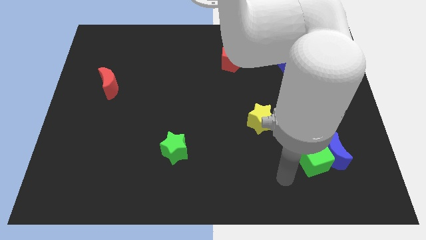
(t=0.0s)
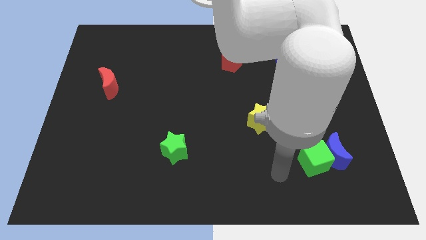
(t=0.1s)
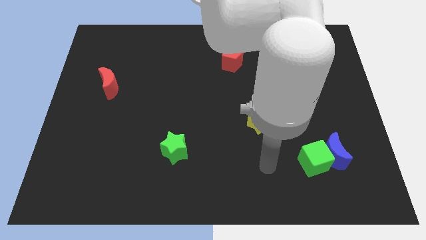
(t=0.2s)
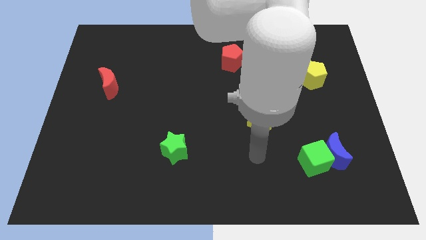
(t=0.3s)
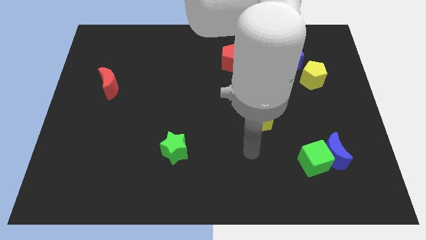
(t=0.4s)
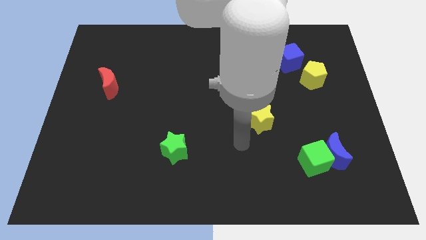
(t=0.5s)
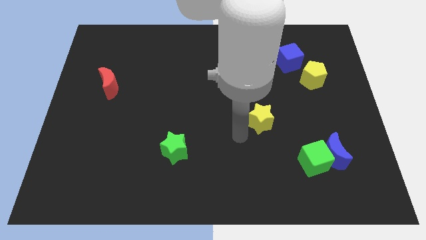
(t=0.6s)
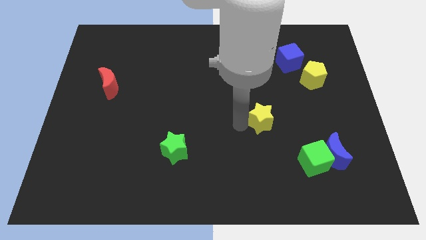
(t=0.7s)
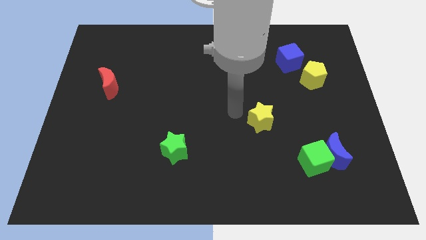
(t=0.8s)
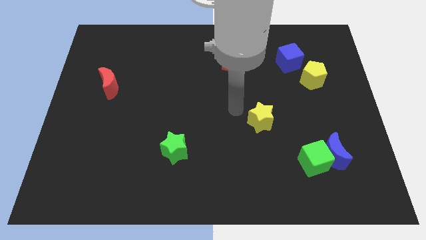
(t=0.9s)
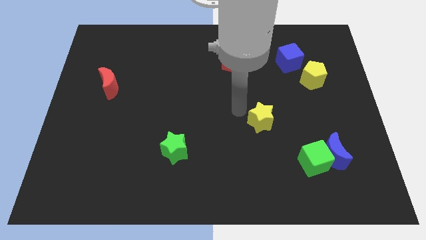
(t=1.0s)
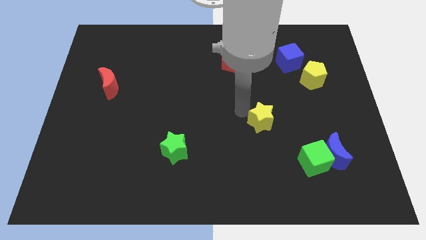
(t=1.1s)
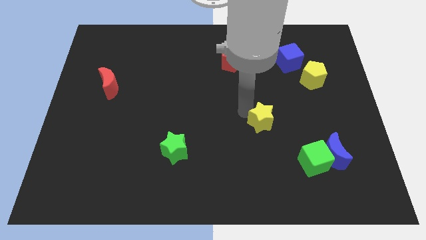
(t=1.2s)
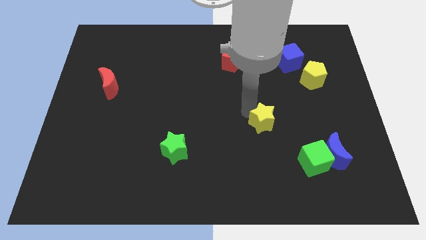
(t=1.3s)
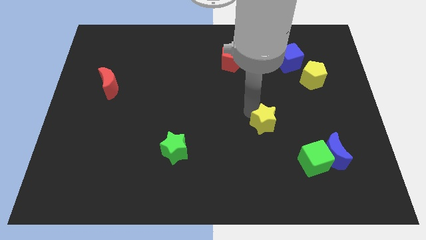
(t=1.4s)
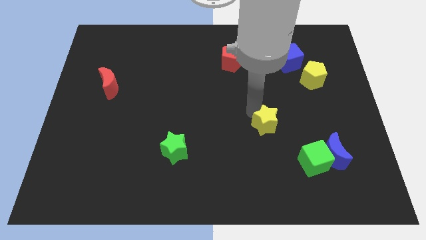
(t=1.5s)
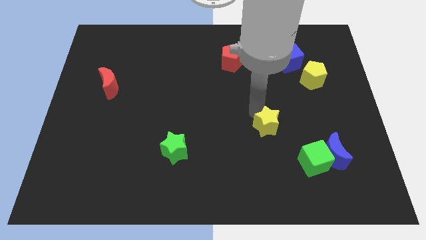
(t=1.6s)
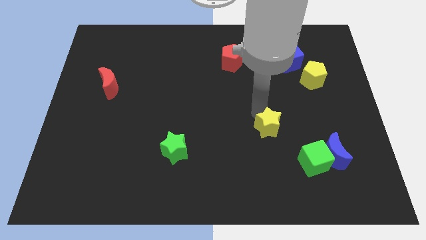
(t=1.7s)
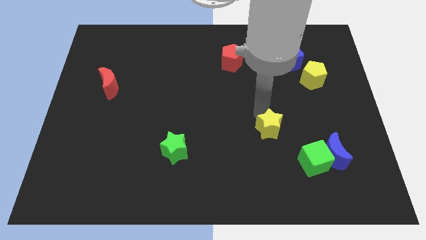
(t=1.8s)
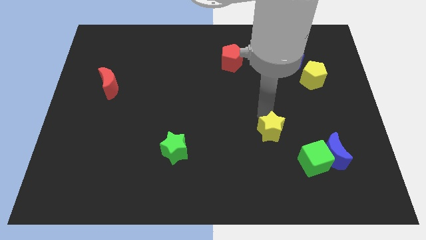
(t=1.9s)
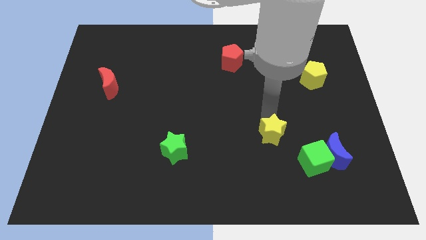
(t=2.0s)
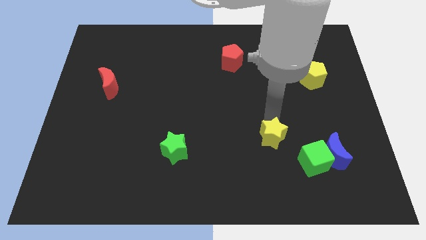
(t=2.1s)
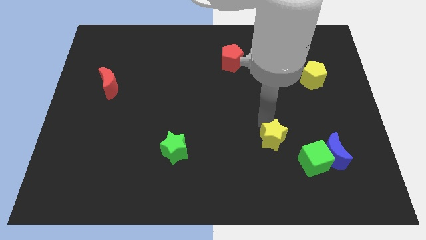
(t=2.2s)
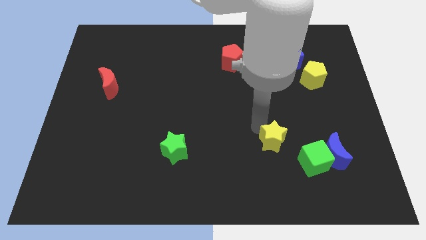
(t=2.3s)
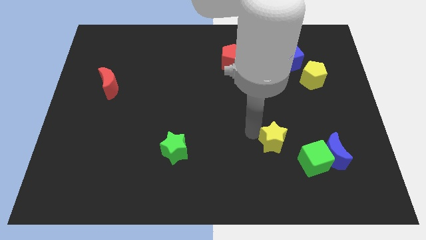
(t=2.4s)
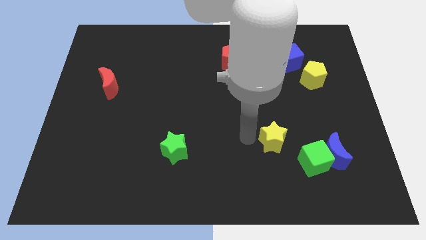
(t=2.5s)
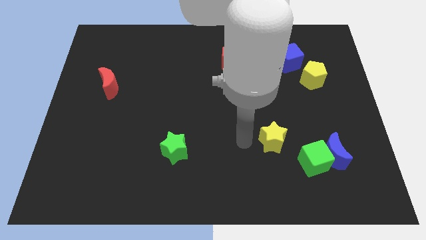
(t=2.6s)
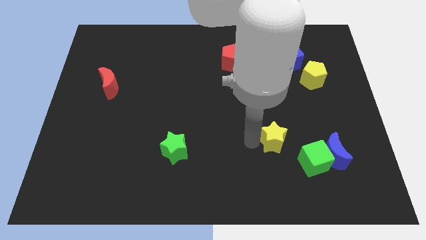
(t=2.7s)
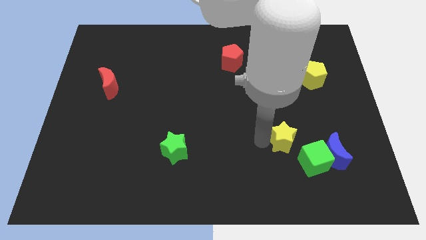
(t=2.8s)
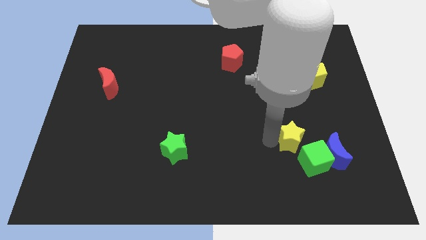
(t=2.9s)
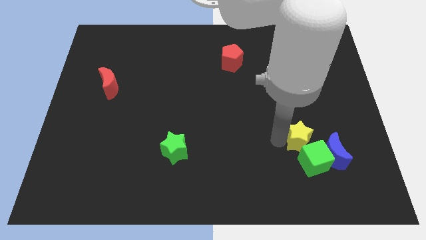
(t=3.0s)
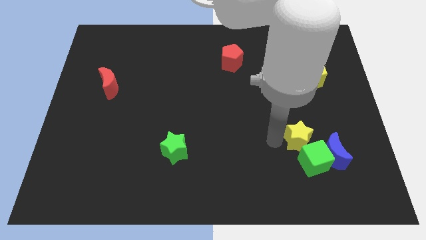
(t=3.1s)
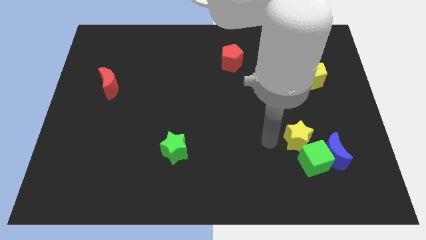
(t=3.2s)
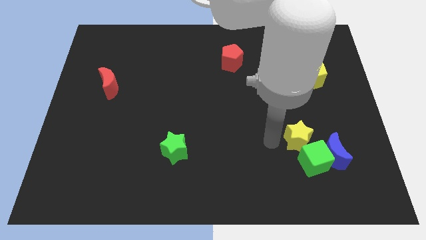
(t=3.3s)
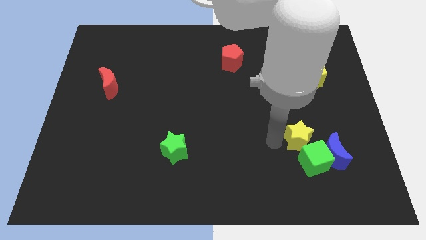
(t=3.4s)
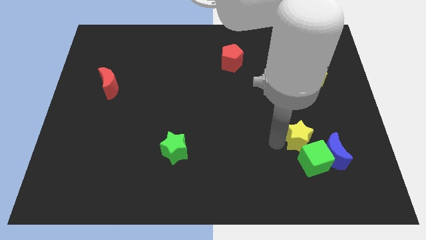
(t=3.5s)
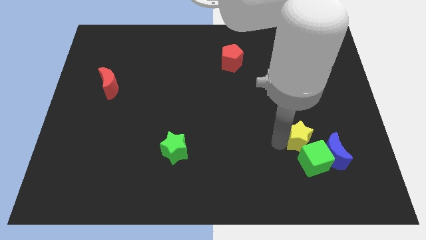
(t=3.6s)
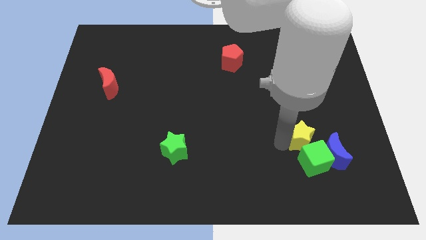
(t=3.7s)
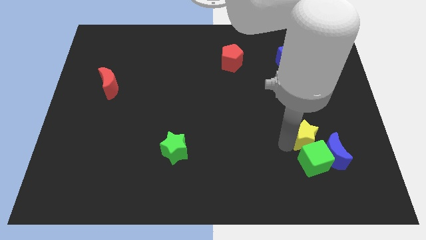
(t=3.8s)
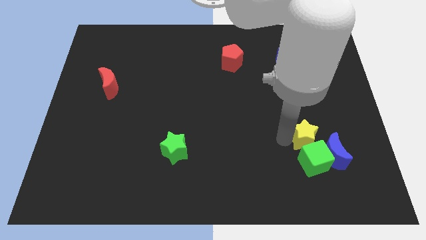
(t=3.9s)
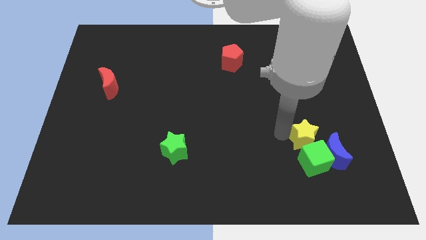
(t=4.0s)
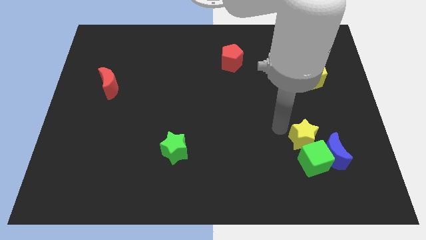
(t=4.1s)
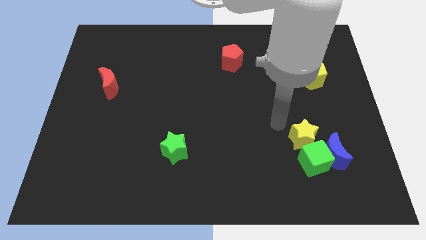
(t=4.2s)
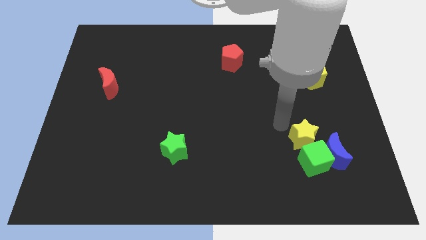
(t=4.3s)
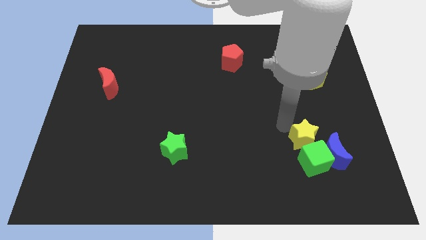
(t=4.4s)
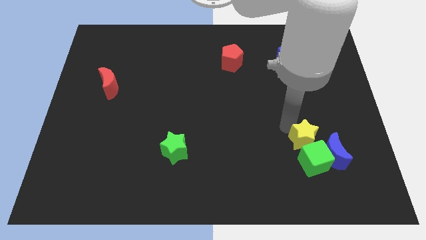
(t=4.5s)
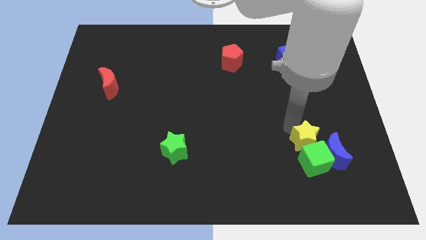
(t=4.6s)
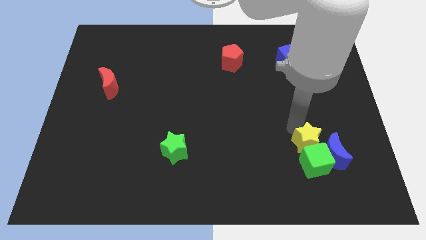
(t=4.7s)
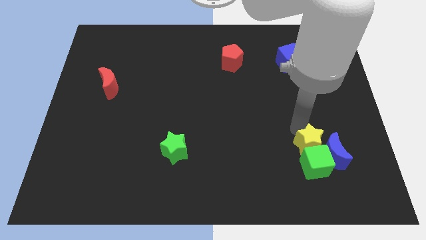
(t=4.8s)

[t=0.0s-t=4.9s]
put the yellow star towards the blue moon

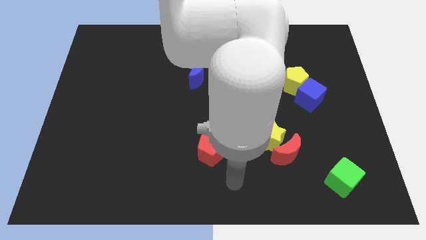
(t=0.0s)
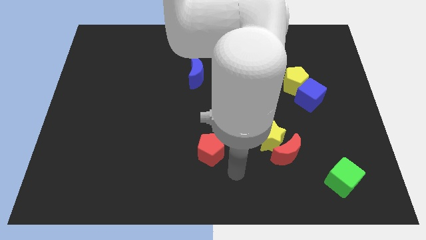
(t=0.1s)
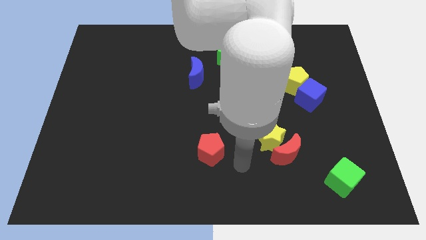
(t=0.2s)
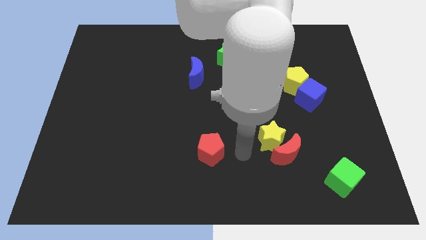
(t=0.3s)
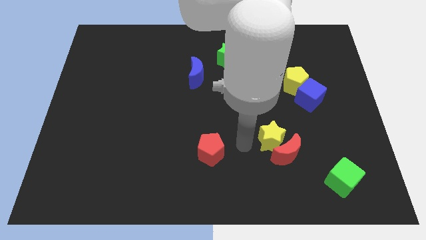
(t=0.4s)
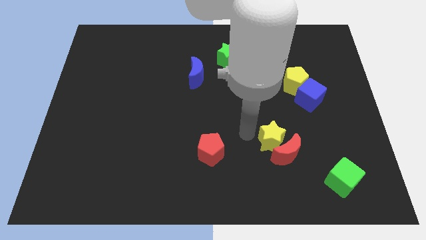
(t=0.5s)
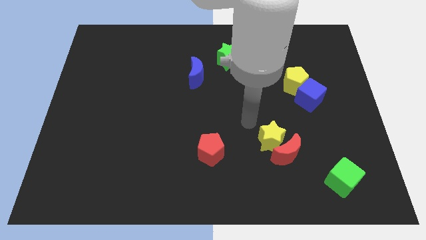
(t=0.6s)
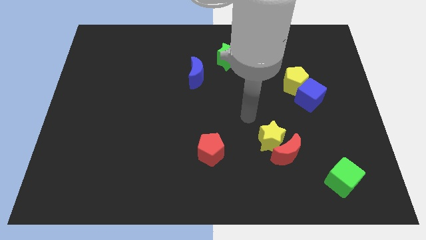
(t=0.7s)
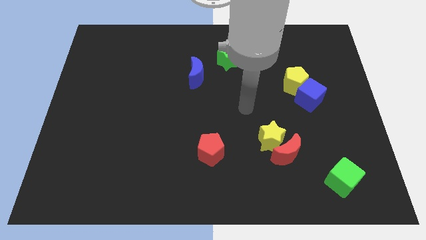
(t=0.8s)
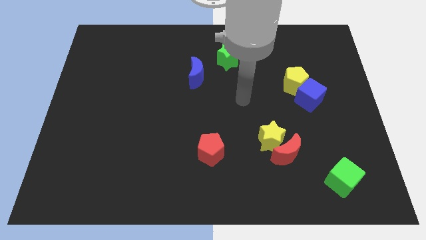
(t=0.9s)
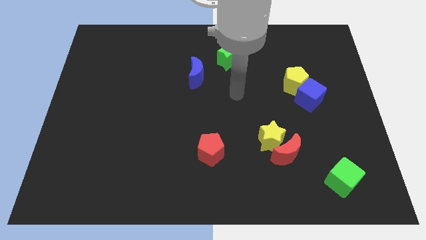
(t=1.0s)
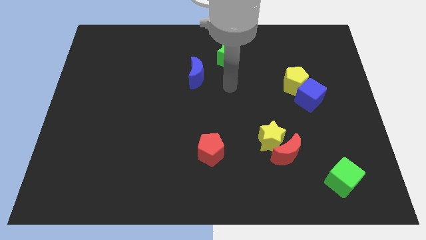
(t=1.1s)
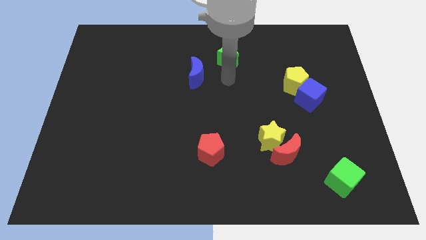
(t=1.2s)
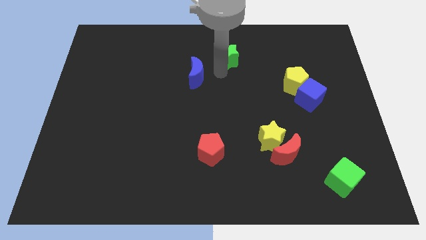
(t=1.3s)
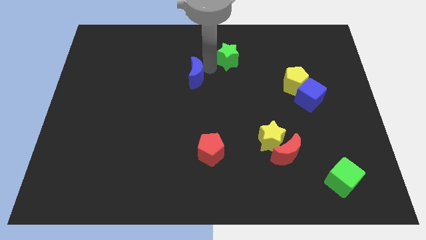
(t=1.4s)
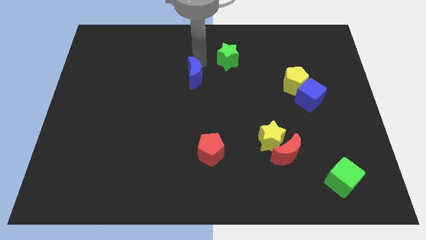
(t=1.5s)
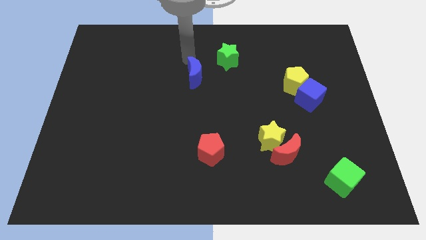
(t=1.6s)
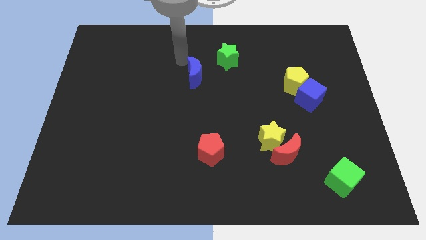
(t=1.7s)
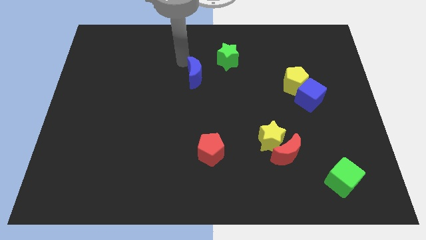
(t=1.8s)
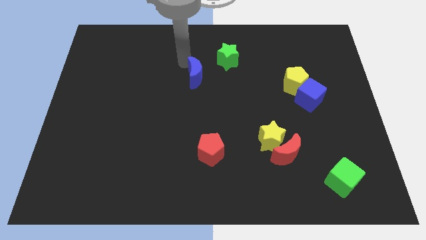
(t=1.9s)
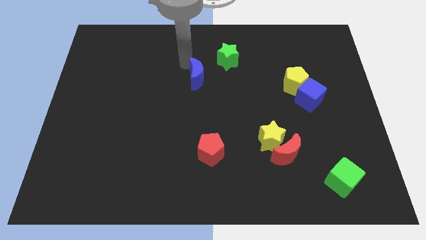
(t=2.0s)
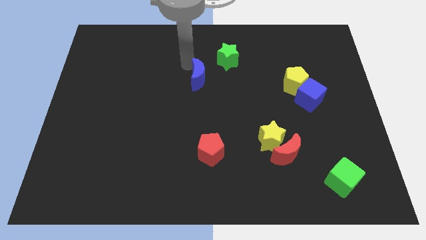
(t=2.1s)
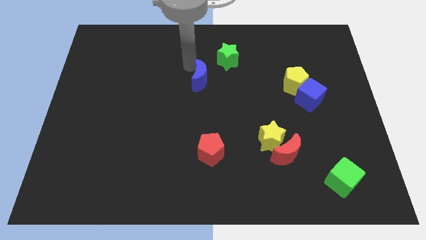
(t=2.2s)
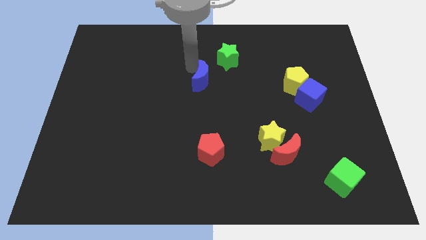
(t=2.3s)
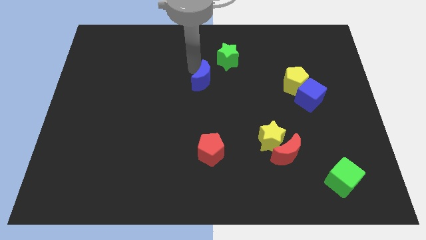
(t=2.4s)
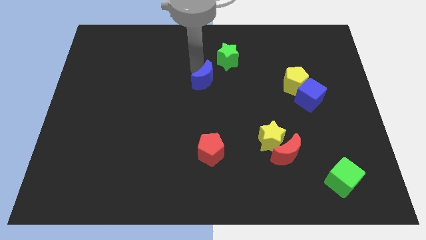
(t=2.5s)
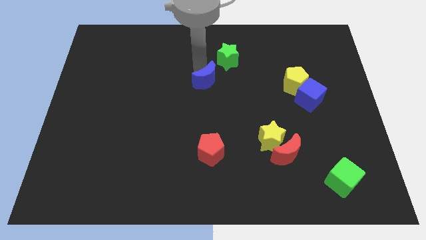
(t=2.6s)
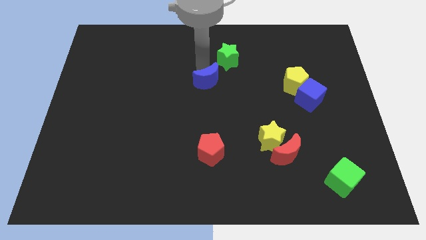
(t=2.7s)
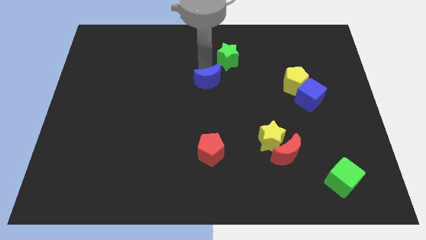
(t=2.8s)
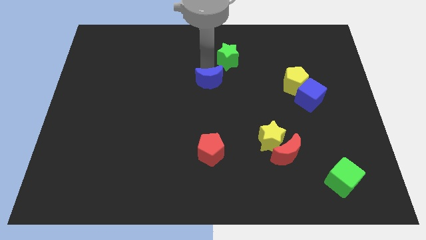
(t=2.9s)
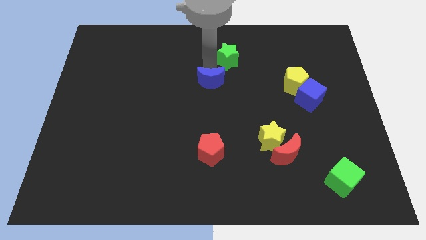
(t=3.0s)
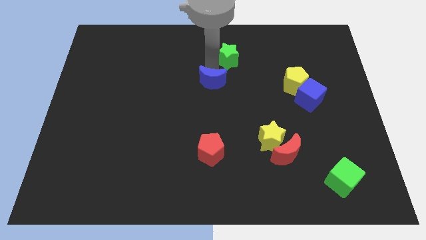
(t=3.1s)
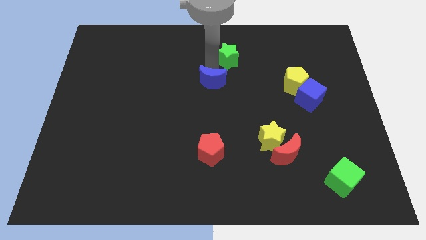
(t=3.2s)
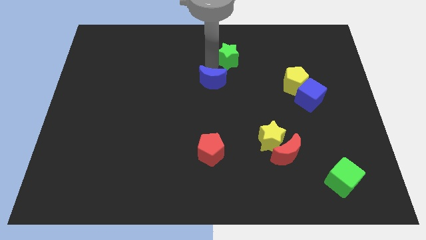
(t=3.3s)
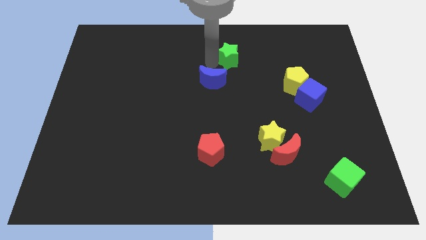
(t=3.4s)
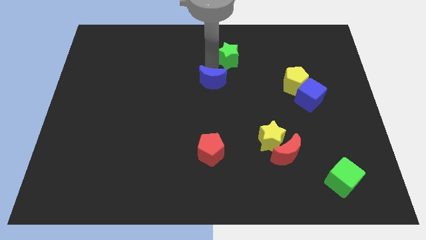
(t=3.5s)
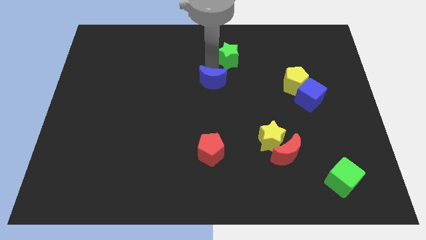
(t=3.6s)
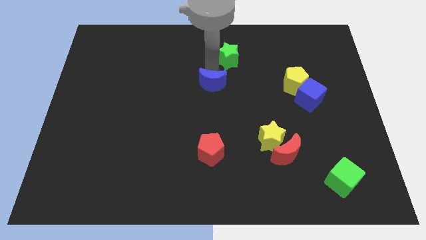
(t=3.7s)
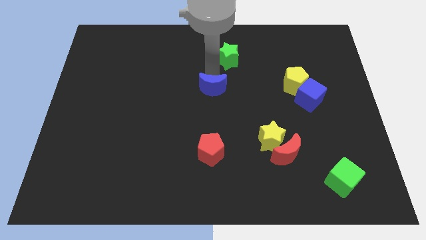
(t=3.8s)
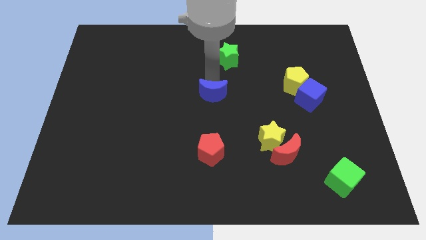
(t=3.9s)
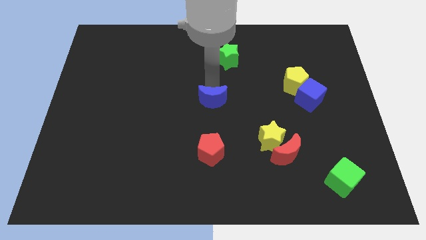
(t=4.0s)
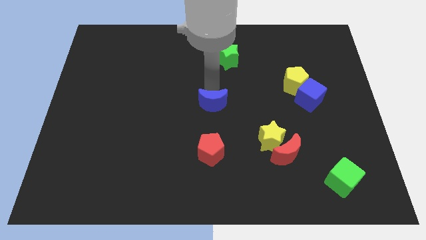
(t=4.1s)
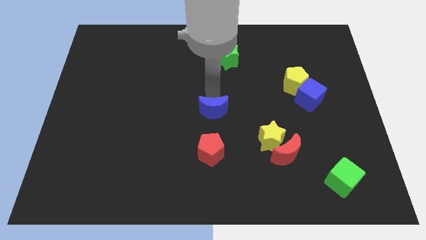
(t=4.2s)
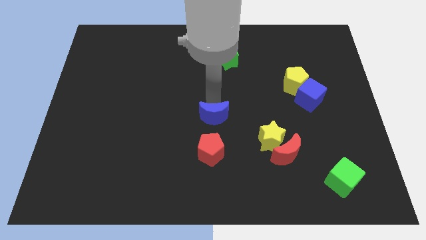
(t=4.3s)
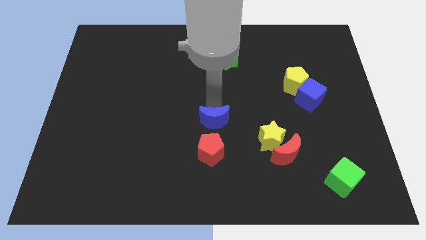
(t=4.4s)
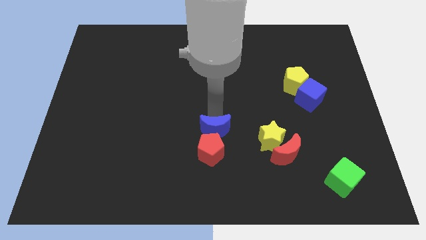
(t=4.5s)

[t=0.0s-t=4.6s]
push the blue moon towards the red pentagon
